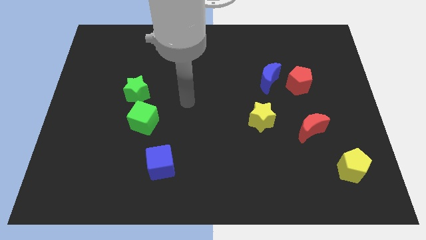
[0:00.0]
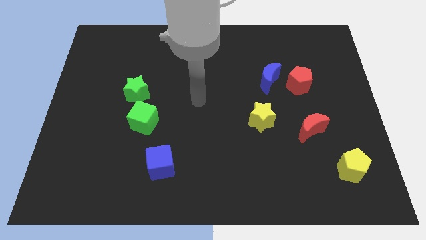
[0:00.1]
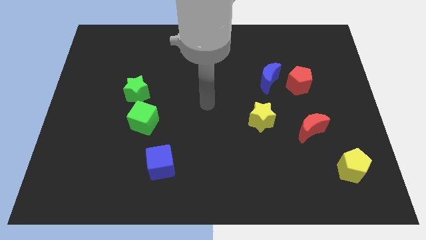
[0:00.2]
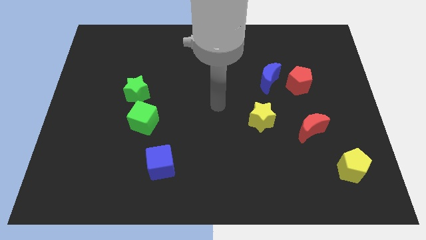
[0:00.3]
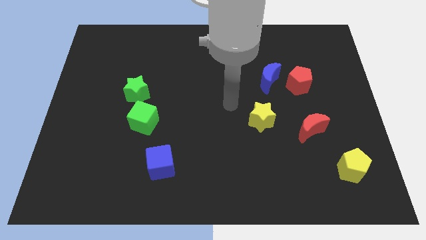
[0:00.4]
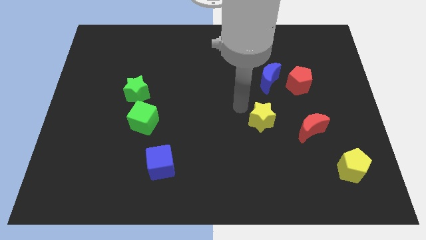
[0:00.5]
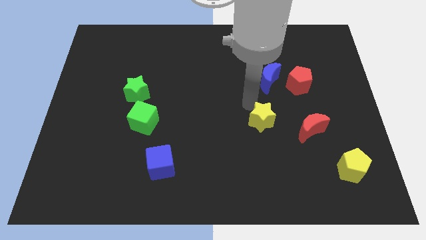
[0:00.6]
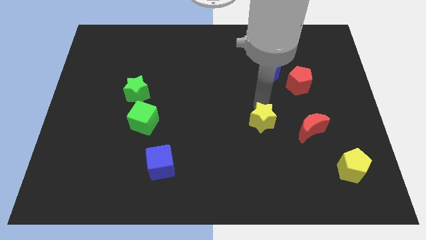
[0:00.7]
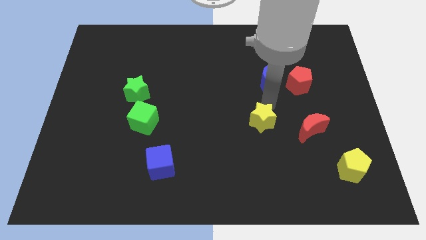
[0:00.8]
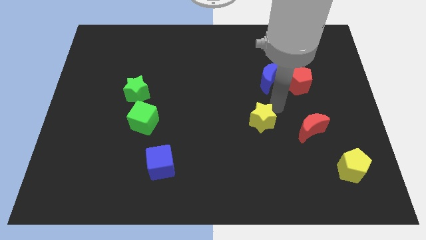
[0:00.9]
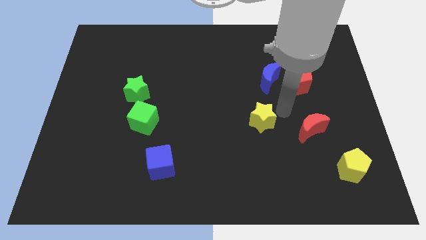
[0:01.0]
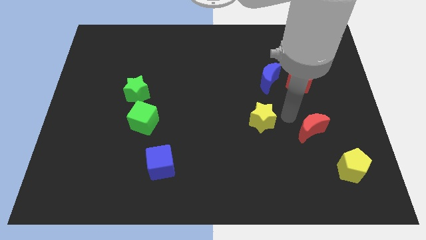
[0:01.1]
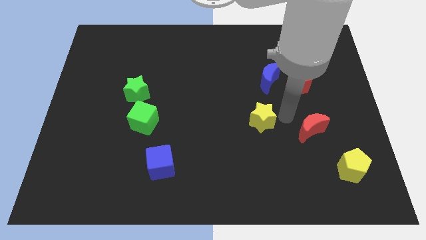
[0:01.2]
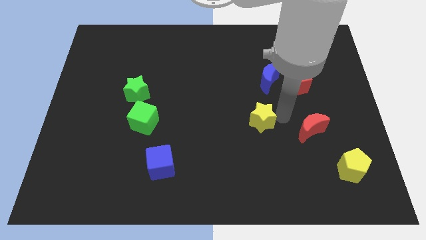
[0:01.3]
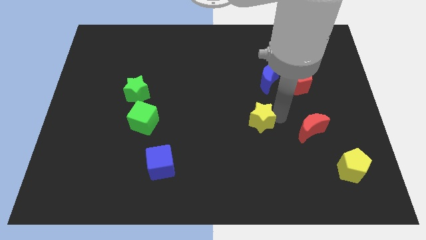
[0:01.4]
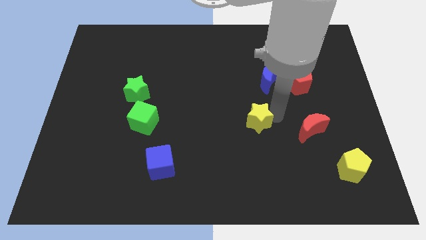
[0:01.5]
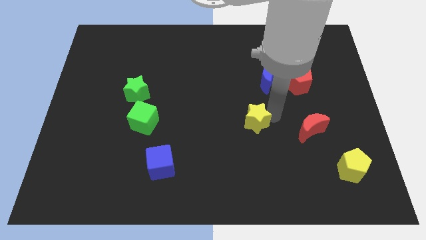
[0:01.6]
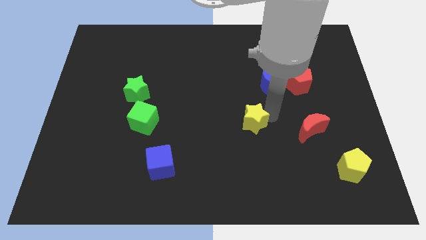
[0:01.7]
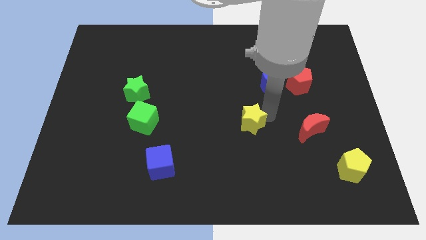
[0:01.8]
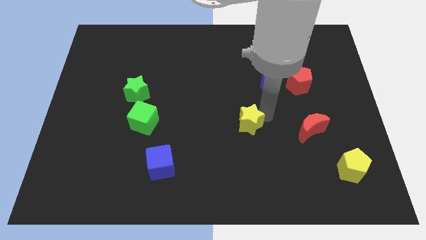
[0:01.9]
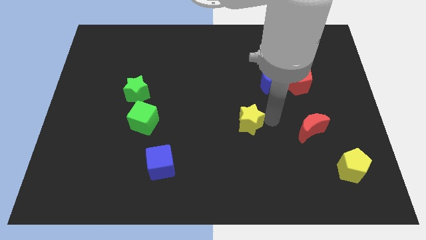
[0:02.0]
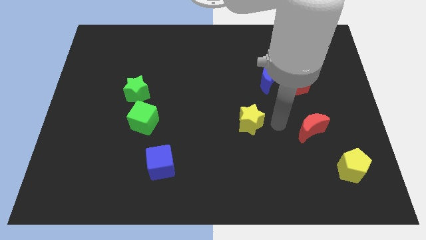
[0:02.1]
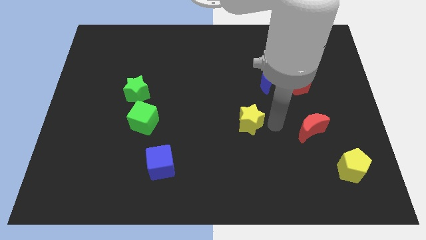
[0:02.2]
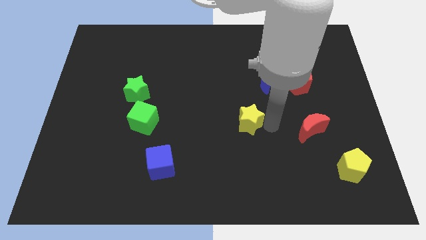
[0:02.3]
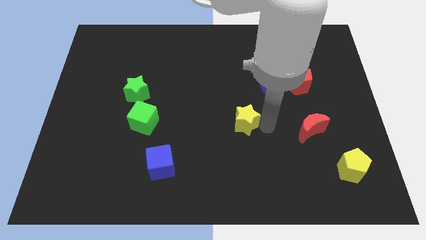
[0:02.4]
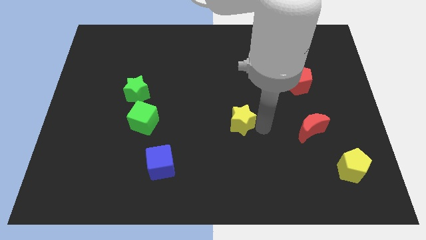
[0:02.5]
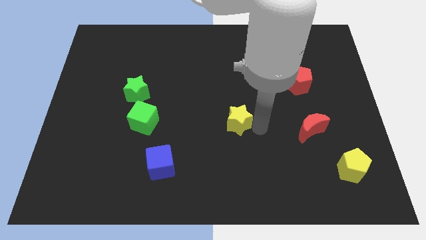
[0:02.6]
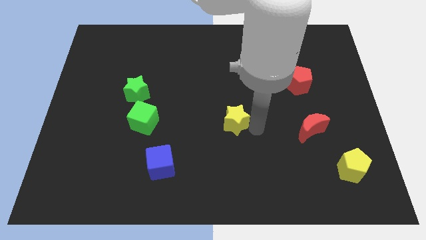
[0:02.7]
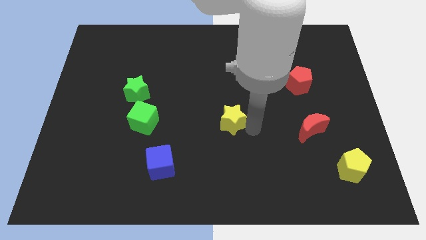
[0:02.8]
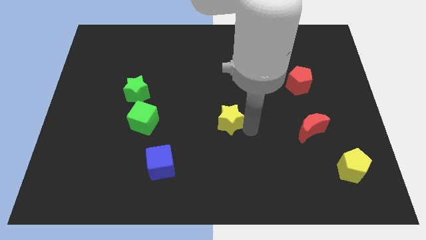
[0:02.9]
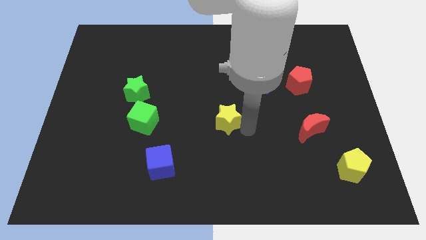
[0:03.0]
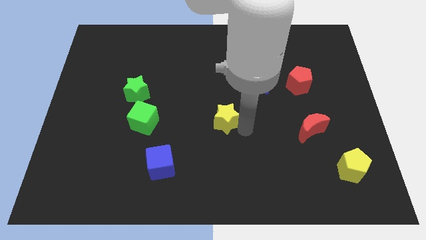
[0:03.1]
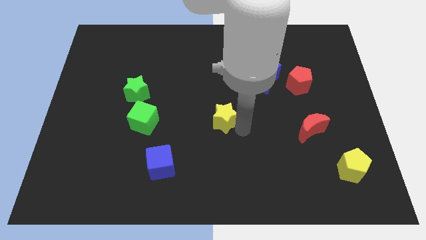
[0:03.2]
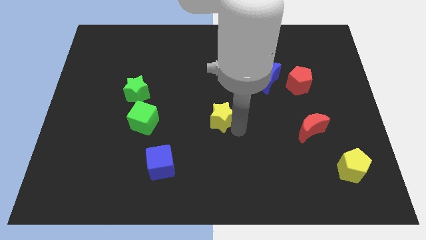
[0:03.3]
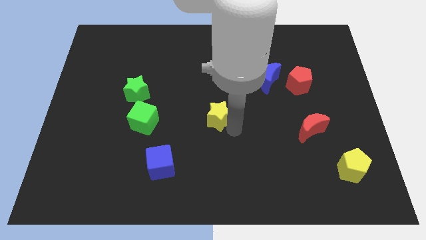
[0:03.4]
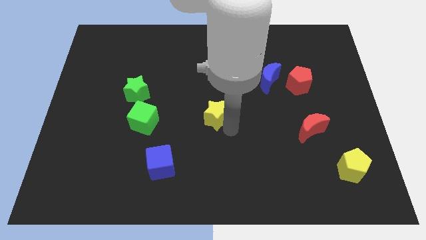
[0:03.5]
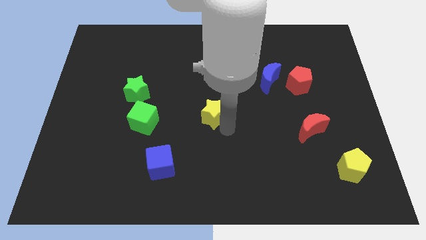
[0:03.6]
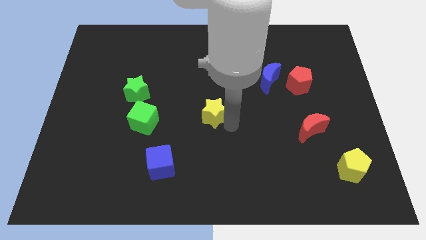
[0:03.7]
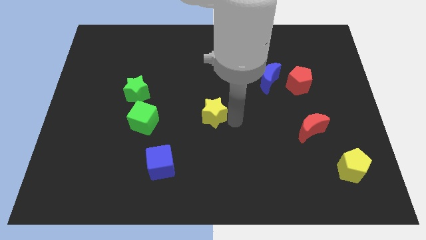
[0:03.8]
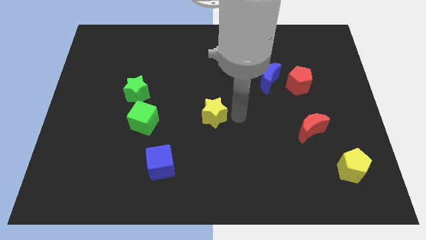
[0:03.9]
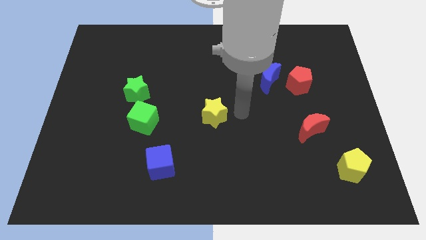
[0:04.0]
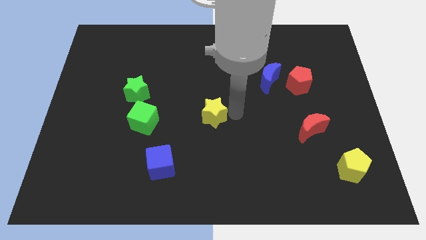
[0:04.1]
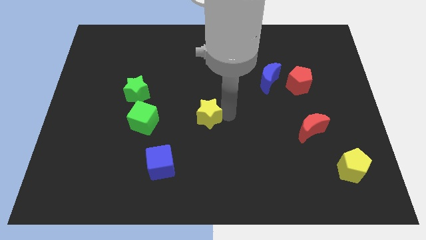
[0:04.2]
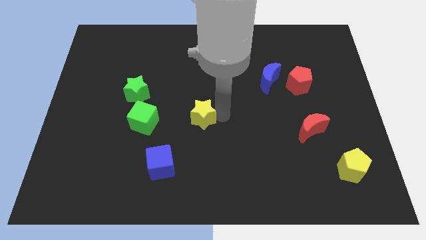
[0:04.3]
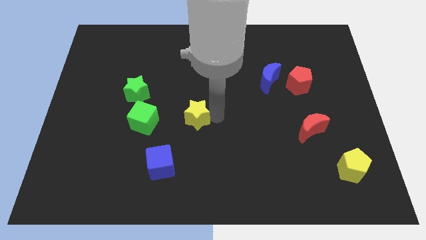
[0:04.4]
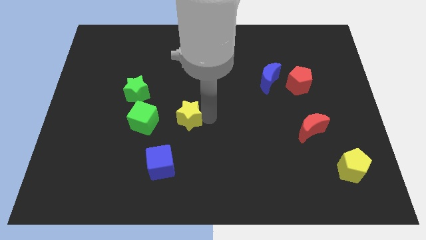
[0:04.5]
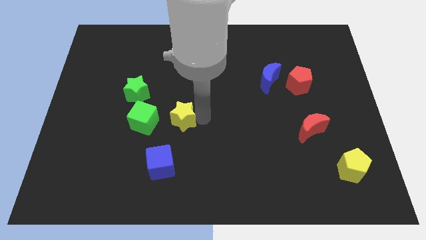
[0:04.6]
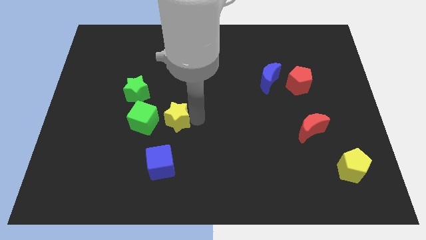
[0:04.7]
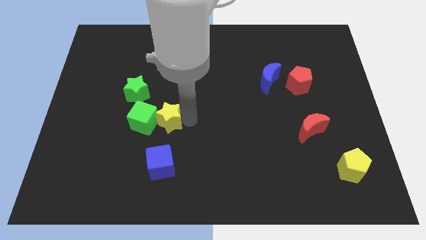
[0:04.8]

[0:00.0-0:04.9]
slide the yellow star close to the green cube

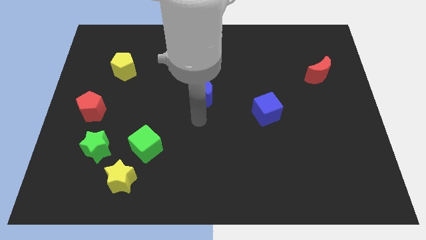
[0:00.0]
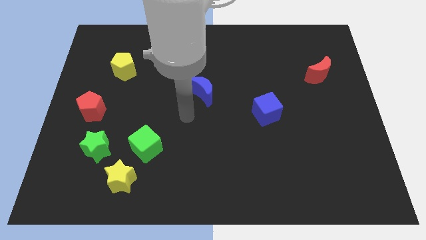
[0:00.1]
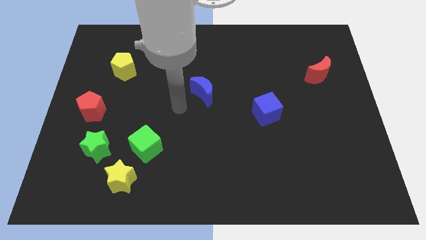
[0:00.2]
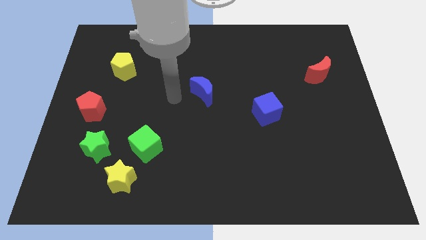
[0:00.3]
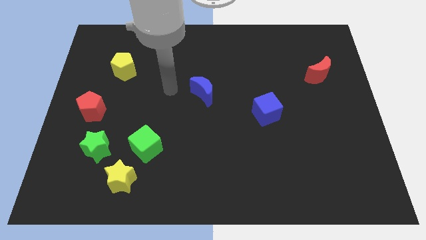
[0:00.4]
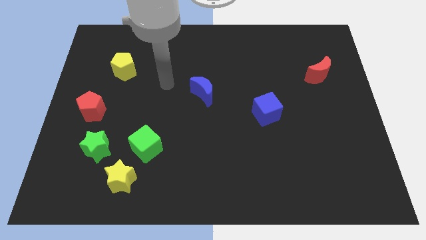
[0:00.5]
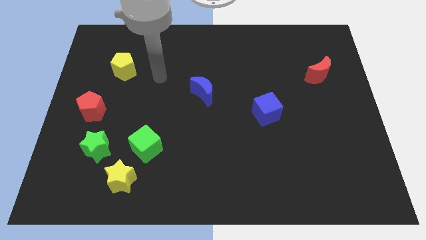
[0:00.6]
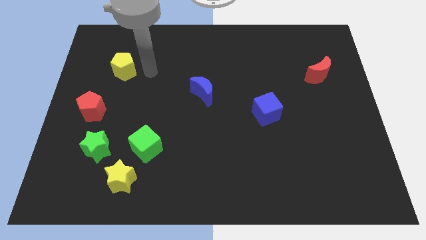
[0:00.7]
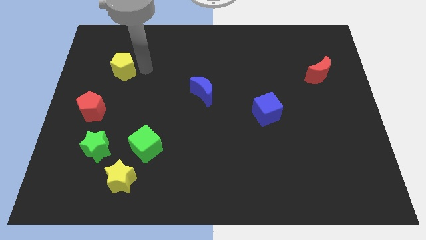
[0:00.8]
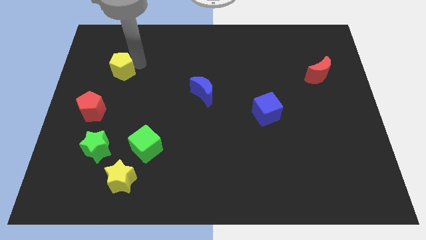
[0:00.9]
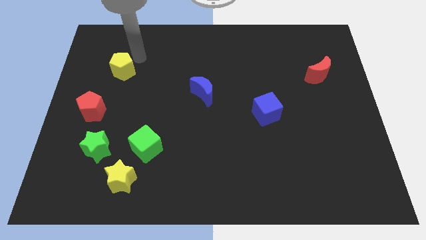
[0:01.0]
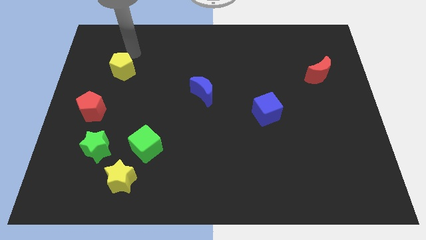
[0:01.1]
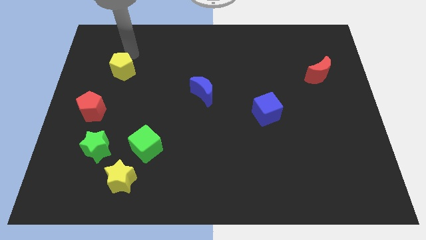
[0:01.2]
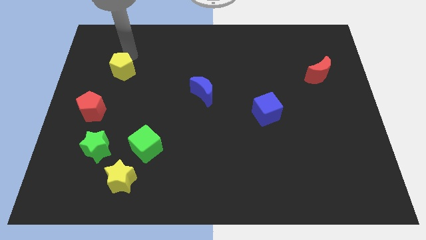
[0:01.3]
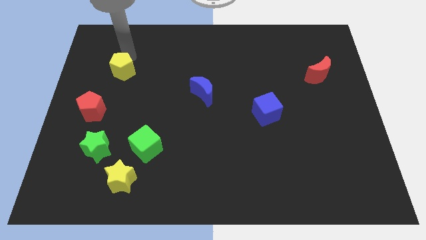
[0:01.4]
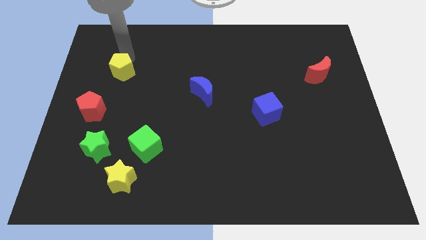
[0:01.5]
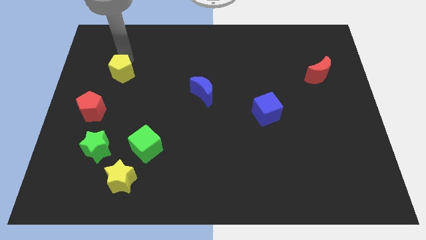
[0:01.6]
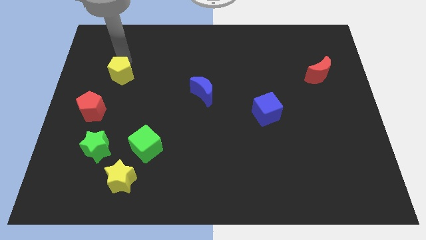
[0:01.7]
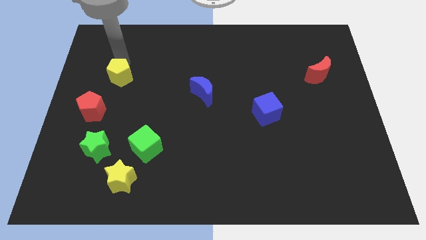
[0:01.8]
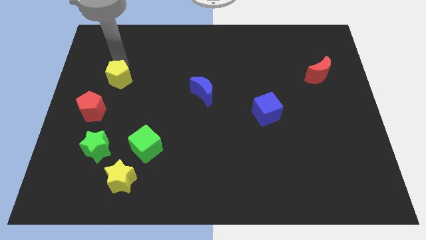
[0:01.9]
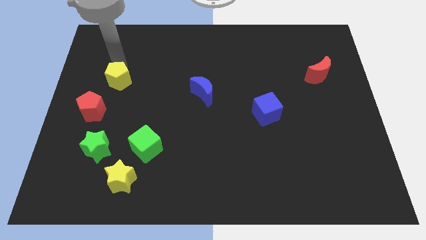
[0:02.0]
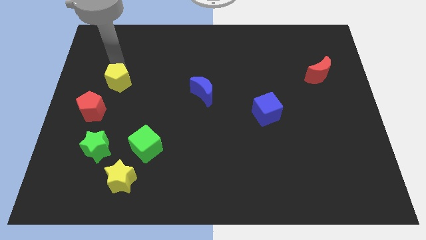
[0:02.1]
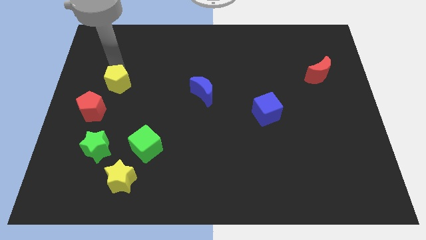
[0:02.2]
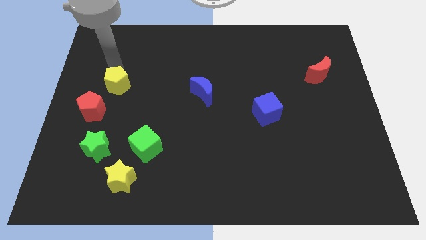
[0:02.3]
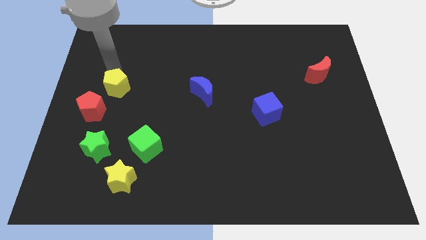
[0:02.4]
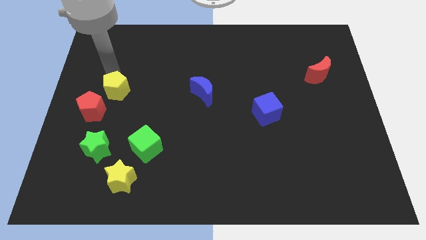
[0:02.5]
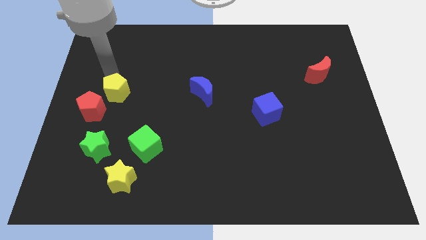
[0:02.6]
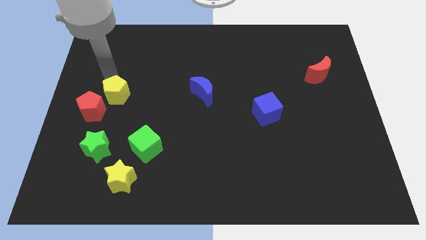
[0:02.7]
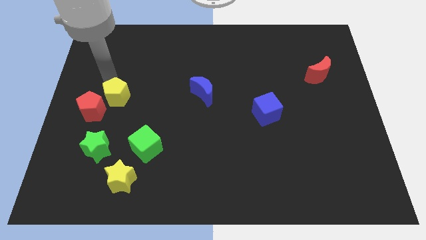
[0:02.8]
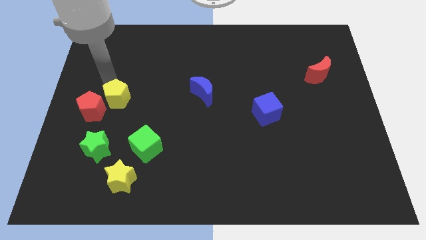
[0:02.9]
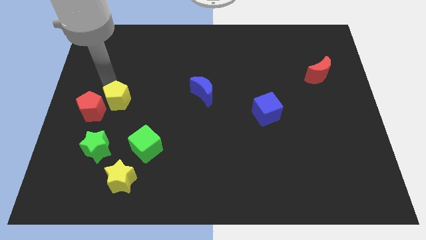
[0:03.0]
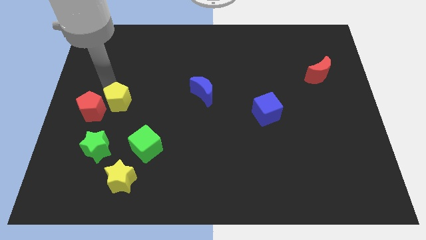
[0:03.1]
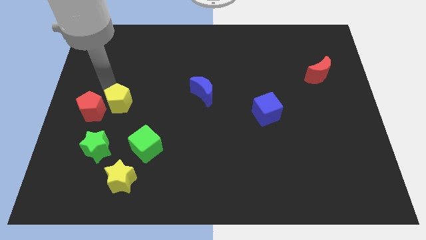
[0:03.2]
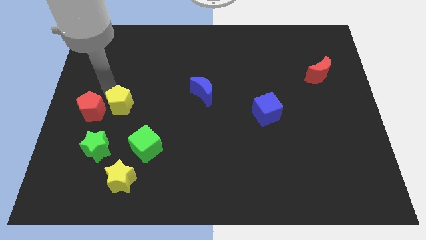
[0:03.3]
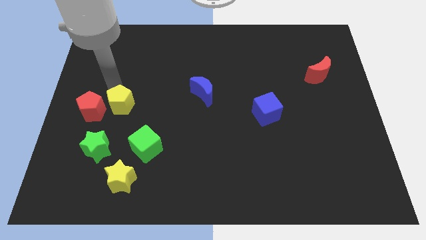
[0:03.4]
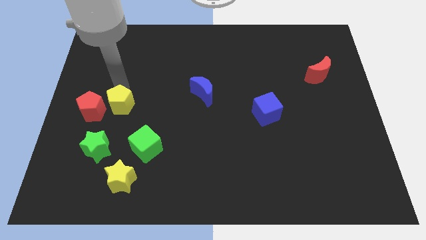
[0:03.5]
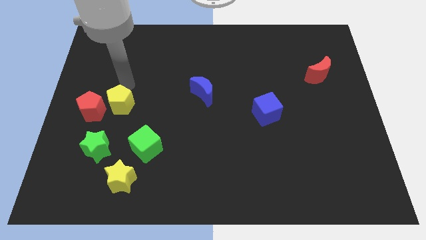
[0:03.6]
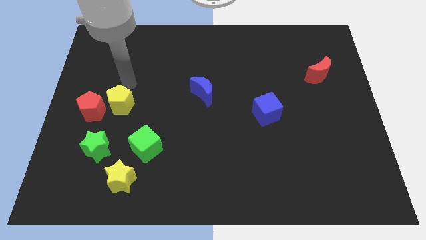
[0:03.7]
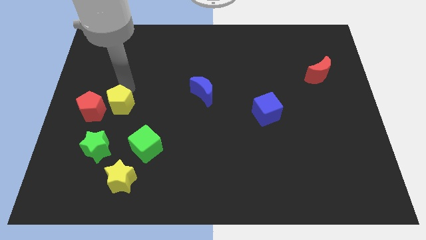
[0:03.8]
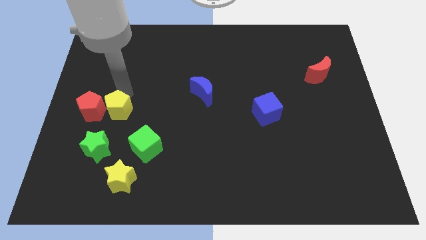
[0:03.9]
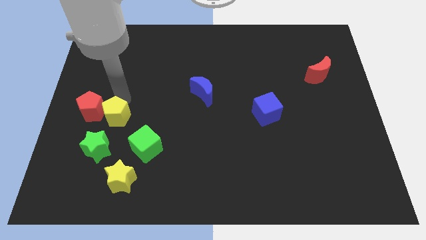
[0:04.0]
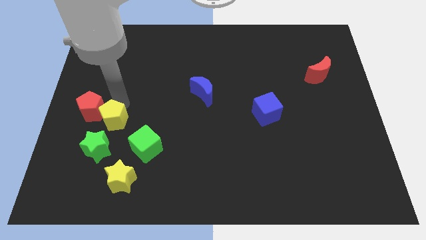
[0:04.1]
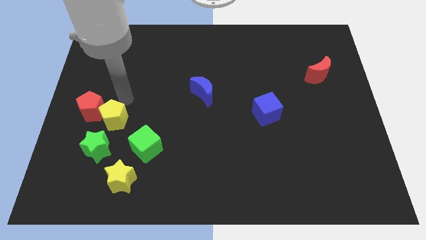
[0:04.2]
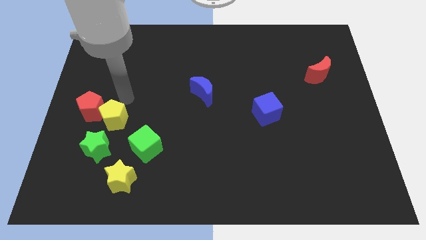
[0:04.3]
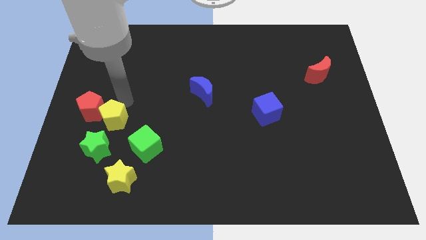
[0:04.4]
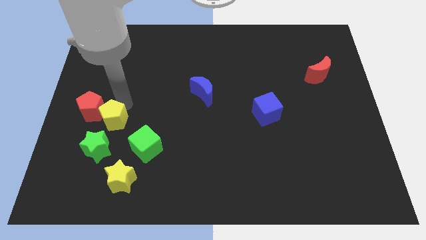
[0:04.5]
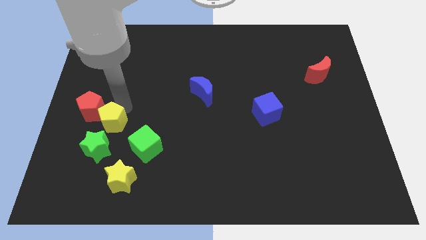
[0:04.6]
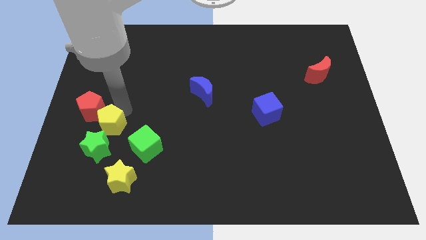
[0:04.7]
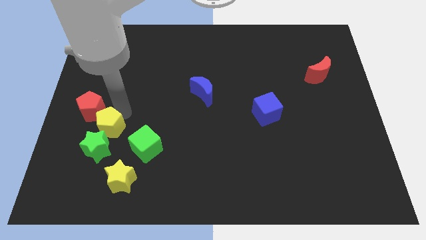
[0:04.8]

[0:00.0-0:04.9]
push the yellow pentagon towards the green star
